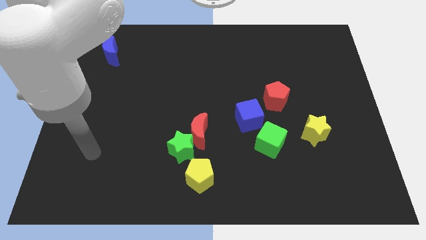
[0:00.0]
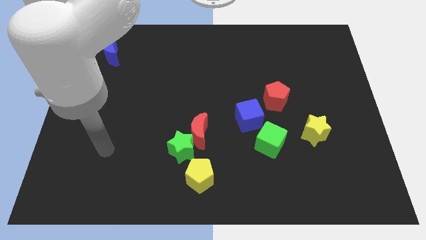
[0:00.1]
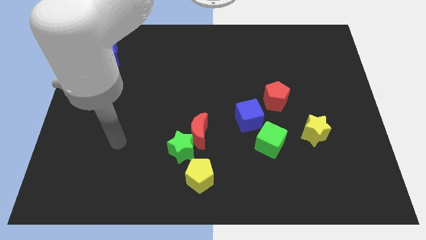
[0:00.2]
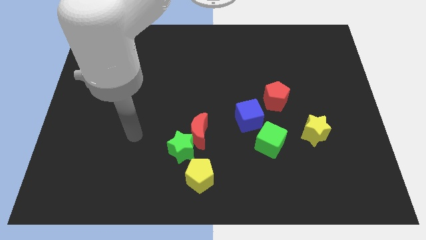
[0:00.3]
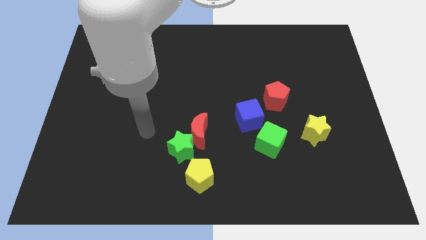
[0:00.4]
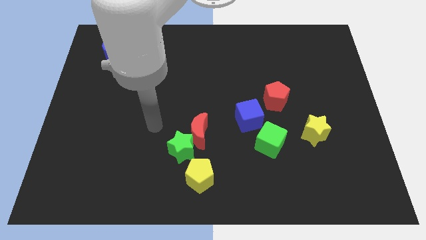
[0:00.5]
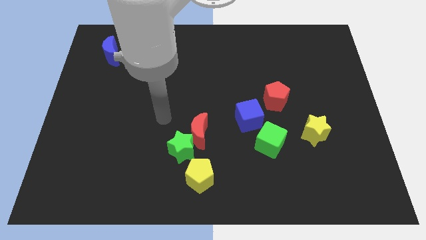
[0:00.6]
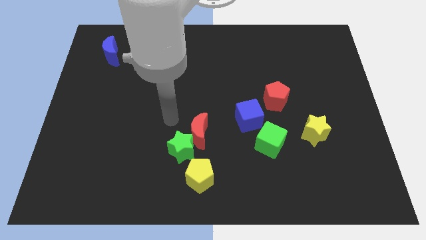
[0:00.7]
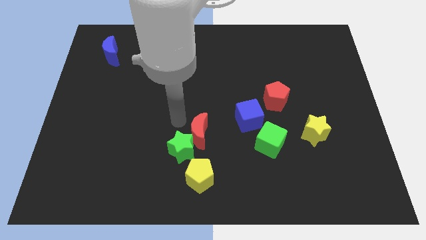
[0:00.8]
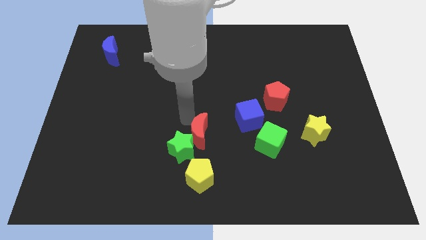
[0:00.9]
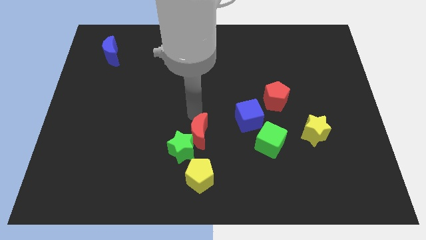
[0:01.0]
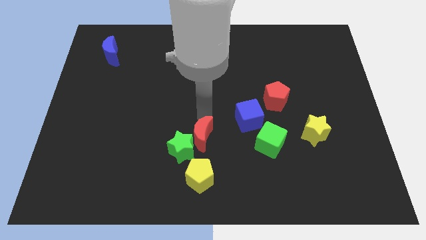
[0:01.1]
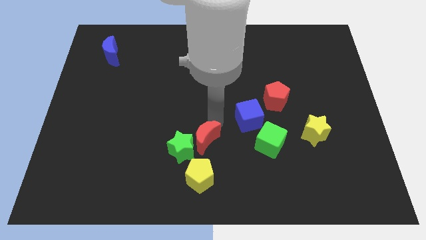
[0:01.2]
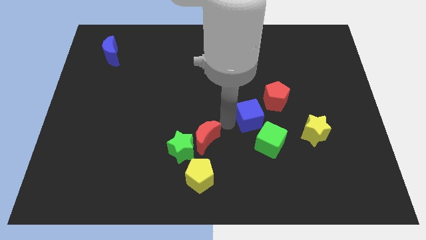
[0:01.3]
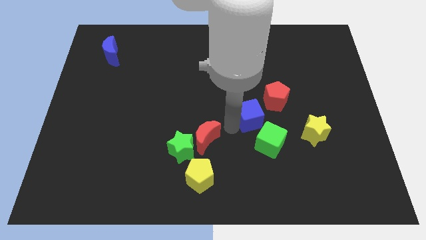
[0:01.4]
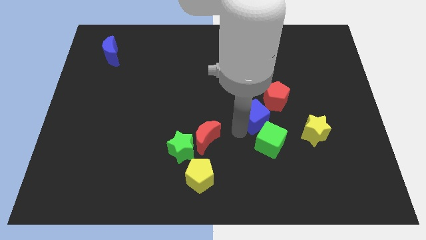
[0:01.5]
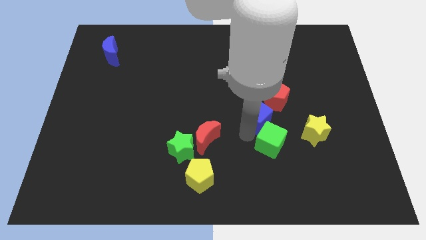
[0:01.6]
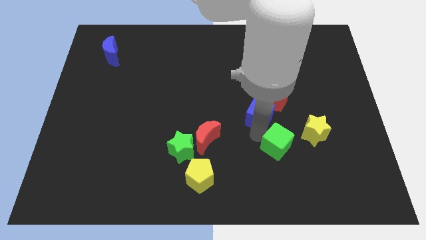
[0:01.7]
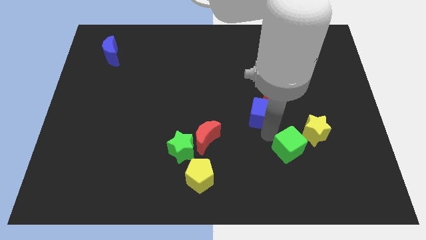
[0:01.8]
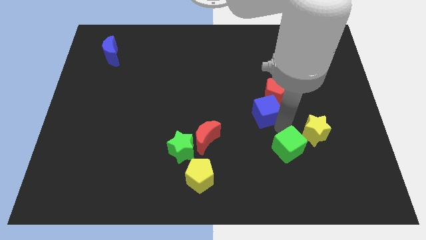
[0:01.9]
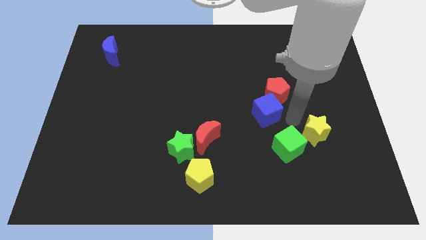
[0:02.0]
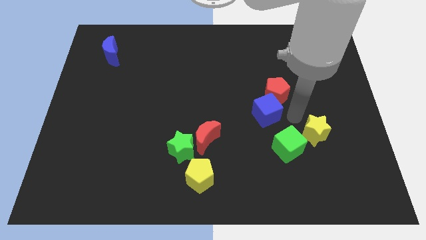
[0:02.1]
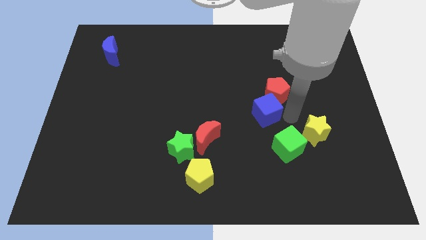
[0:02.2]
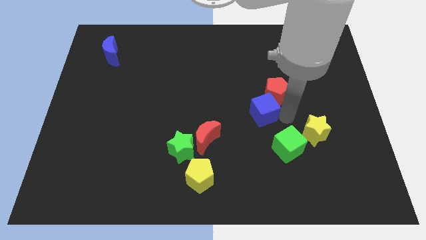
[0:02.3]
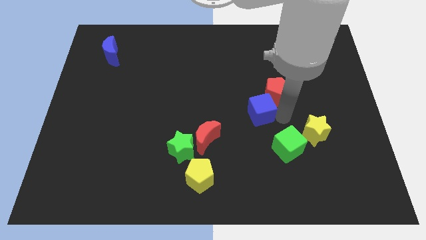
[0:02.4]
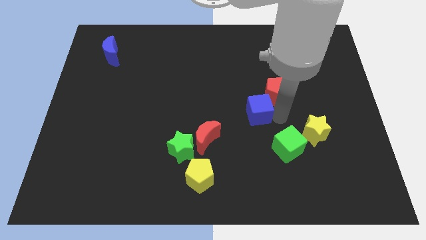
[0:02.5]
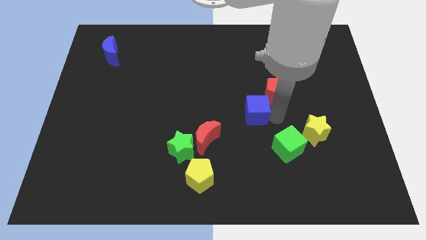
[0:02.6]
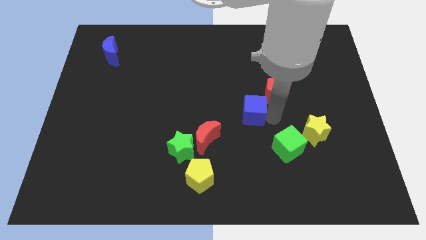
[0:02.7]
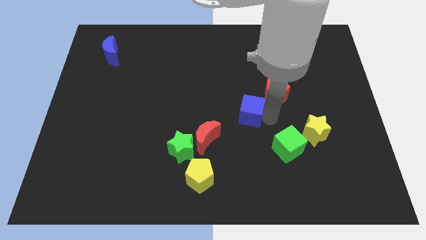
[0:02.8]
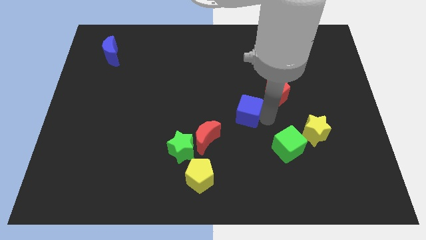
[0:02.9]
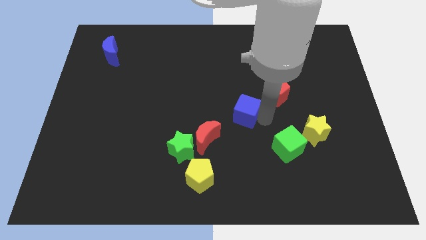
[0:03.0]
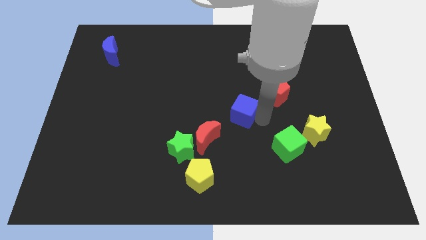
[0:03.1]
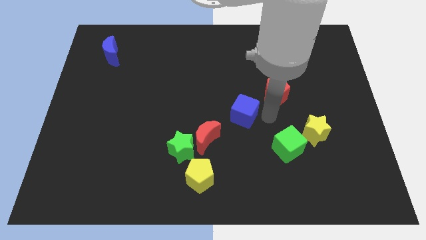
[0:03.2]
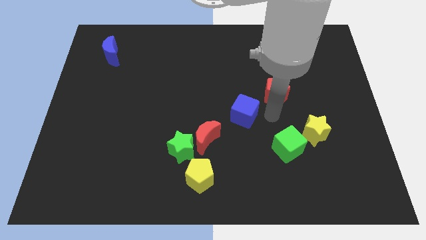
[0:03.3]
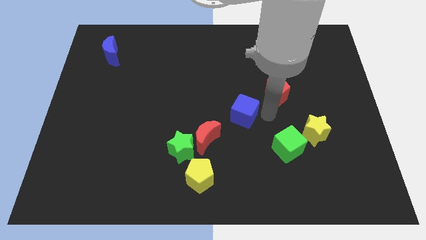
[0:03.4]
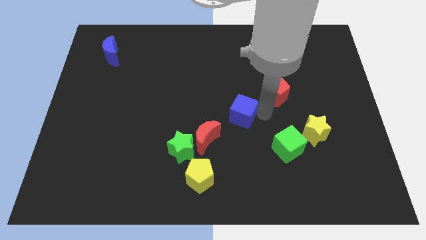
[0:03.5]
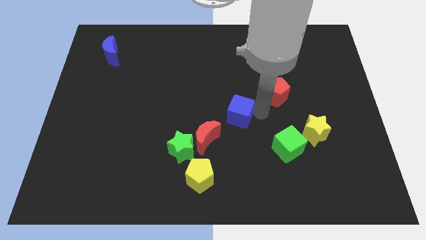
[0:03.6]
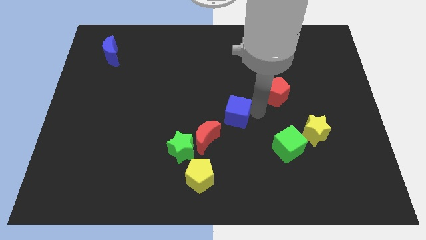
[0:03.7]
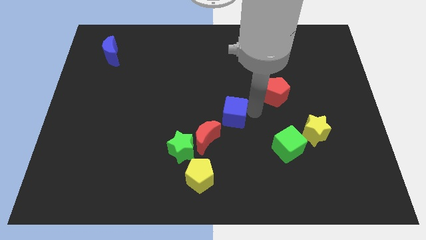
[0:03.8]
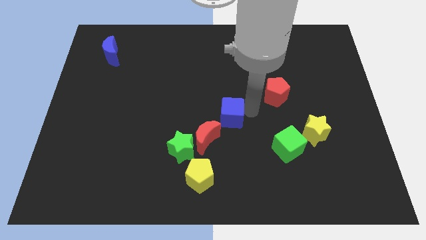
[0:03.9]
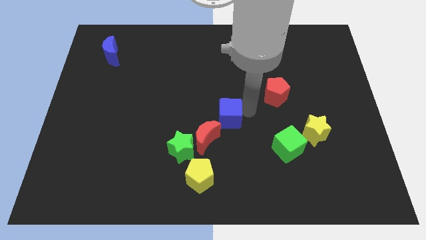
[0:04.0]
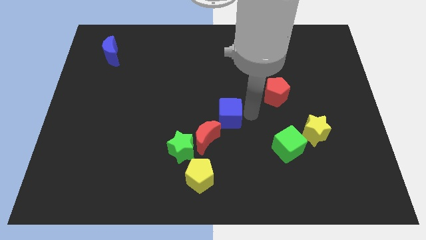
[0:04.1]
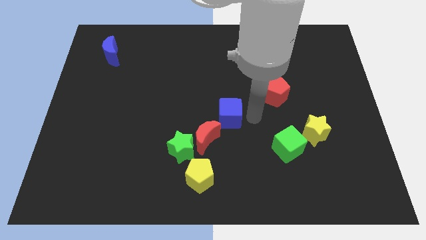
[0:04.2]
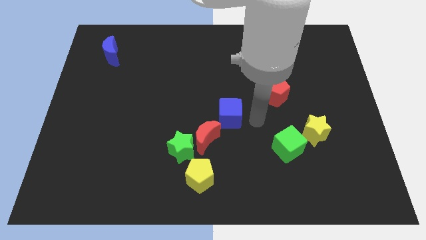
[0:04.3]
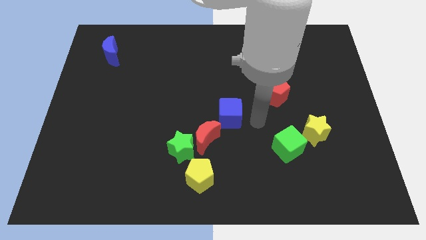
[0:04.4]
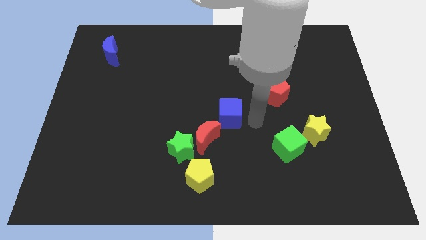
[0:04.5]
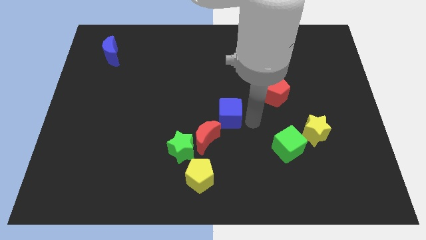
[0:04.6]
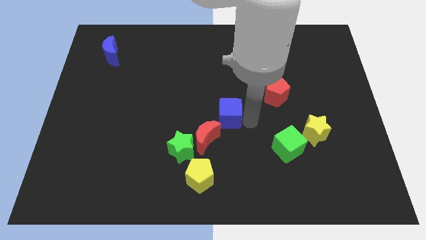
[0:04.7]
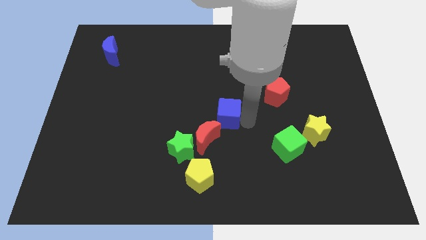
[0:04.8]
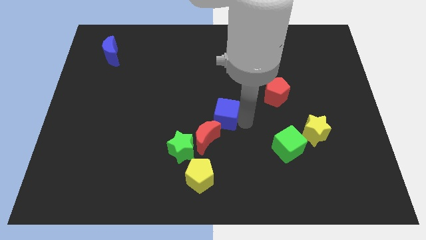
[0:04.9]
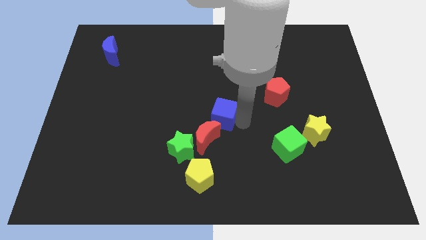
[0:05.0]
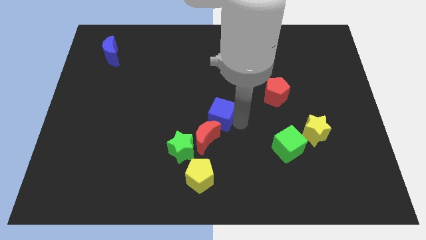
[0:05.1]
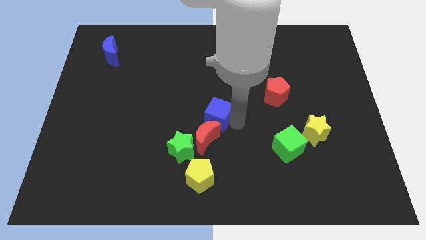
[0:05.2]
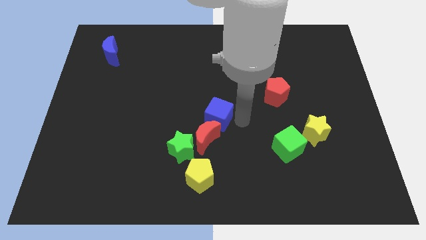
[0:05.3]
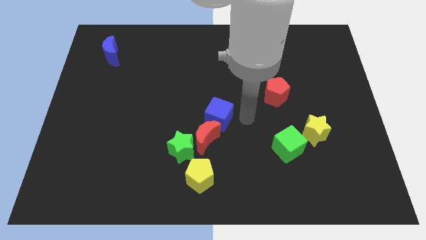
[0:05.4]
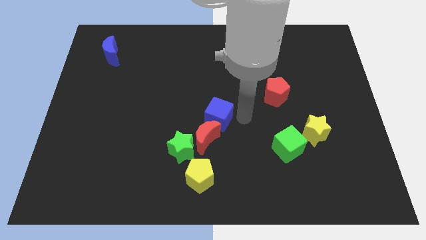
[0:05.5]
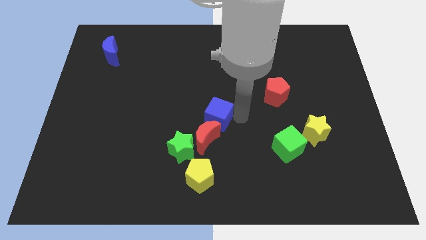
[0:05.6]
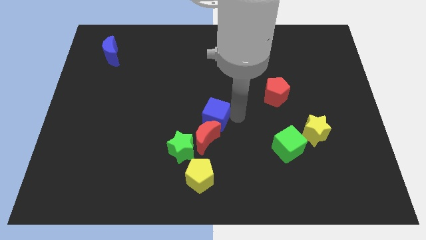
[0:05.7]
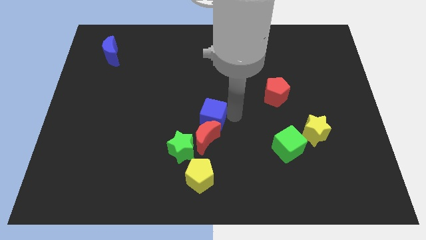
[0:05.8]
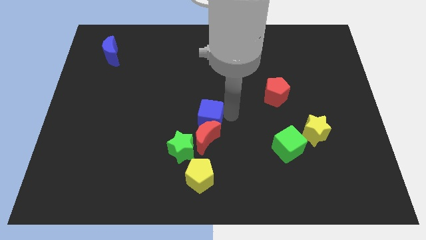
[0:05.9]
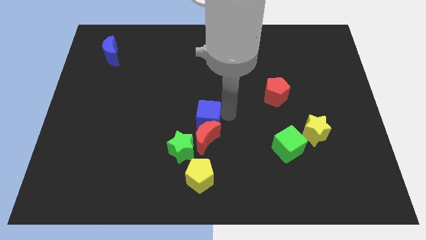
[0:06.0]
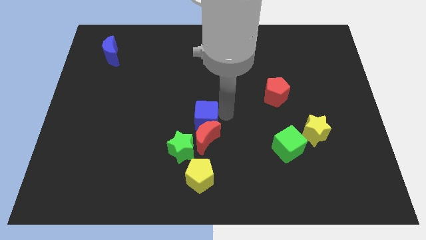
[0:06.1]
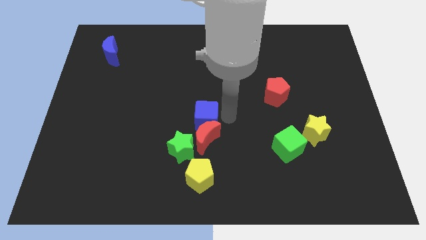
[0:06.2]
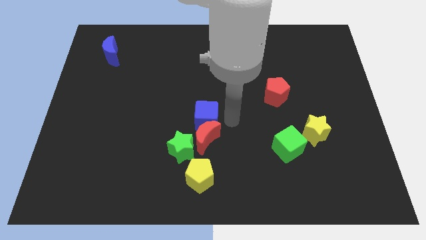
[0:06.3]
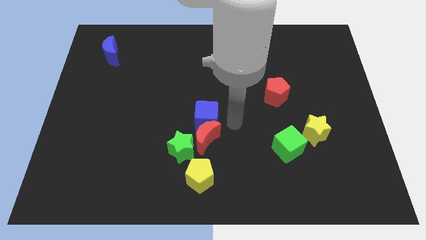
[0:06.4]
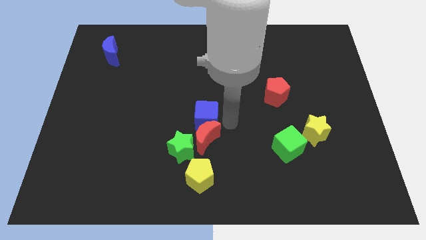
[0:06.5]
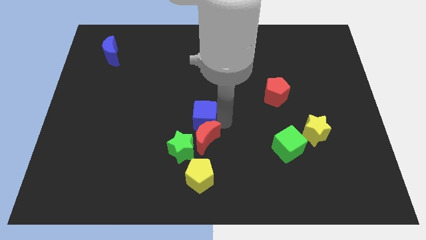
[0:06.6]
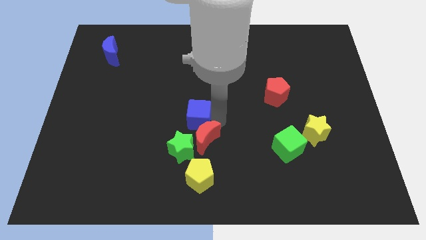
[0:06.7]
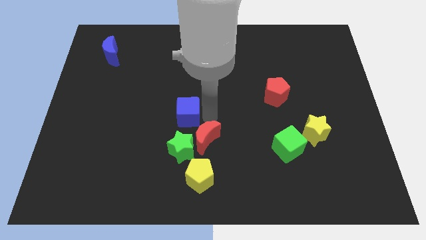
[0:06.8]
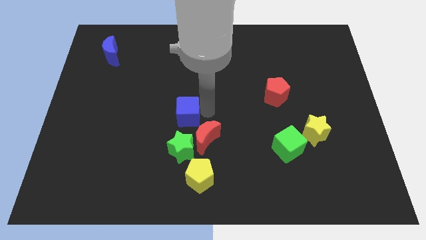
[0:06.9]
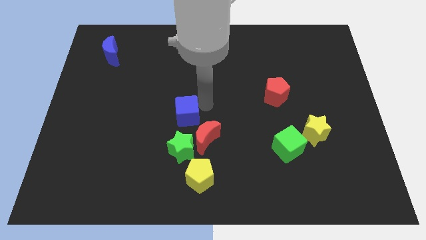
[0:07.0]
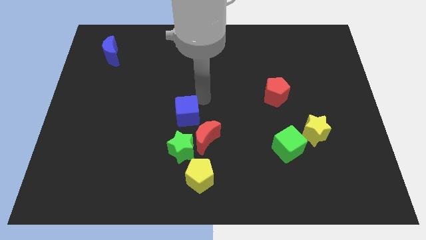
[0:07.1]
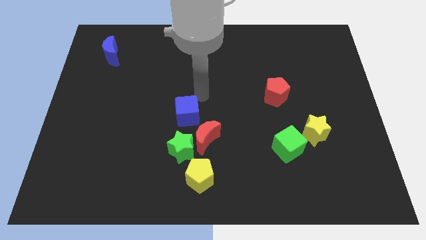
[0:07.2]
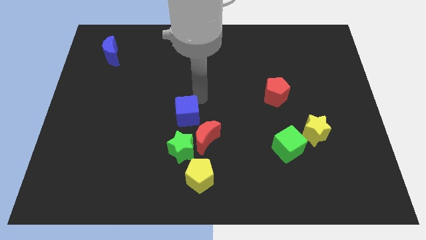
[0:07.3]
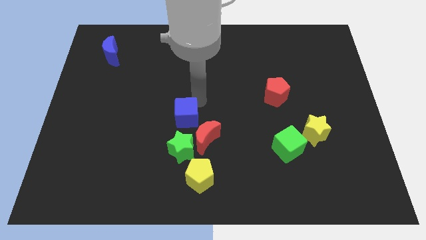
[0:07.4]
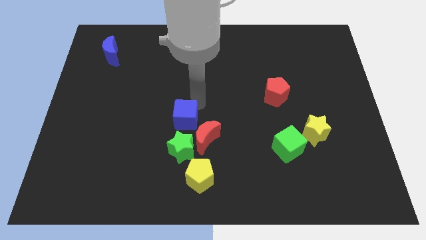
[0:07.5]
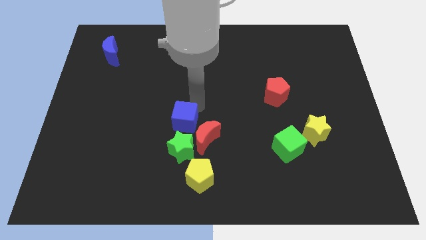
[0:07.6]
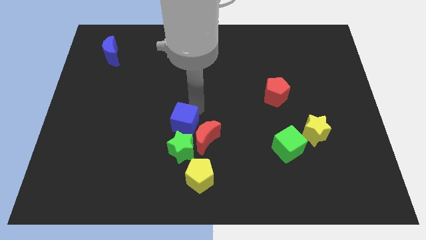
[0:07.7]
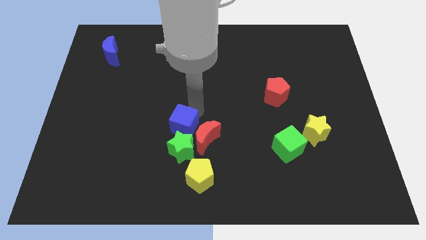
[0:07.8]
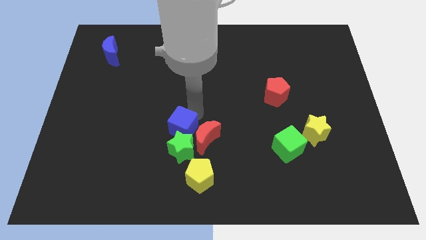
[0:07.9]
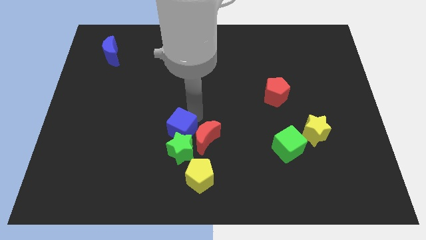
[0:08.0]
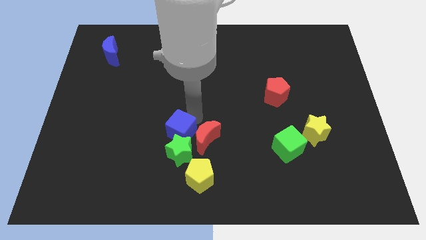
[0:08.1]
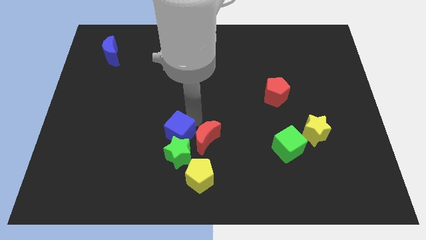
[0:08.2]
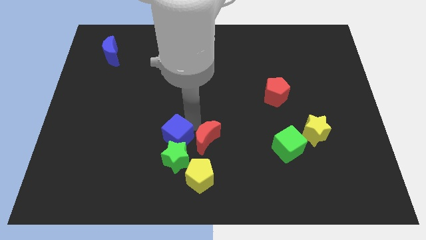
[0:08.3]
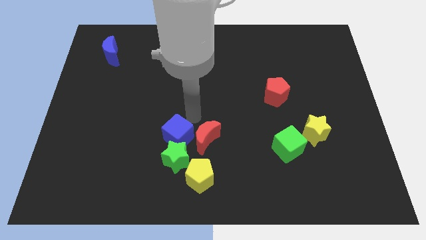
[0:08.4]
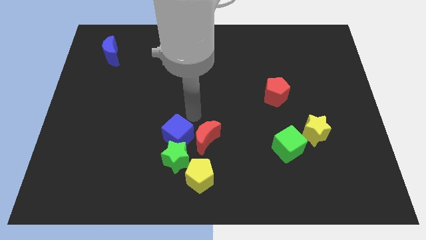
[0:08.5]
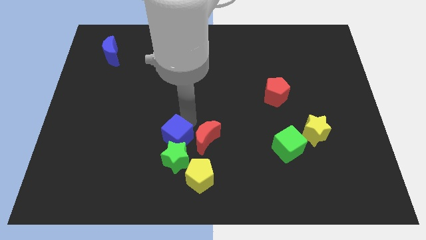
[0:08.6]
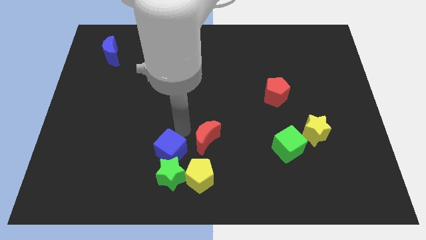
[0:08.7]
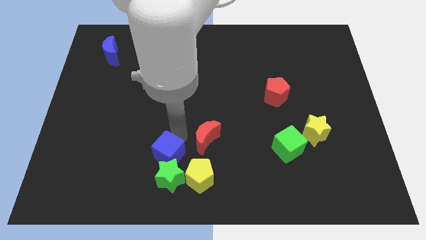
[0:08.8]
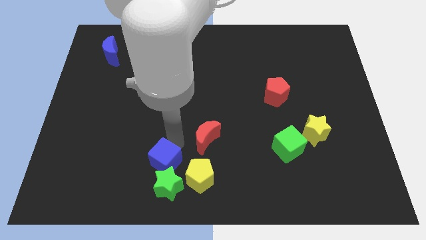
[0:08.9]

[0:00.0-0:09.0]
slide the blue cube left of the yellow pentagon
